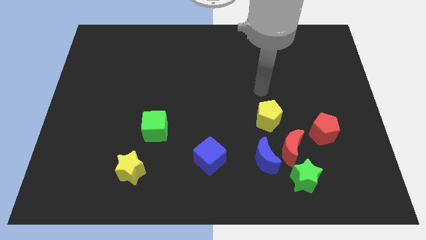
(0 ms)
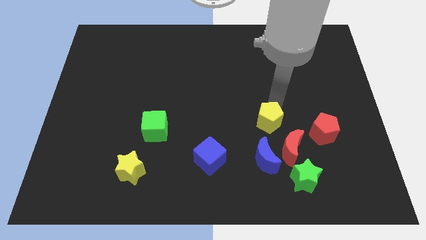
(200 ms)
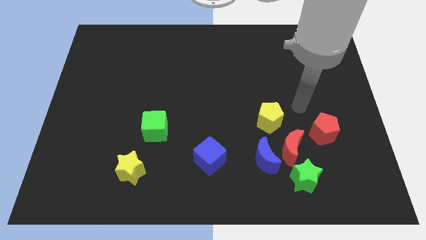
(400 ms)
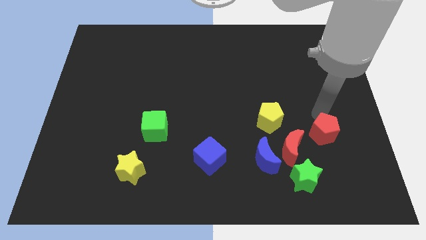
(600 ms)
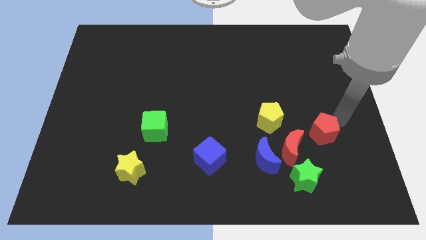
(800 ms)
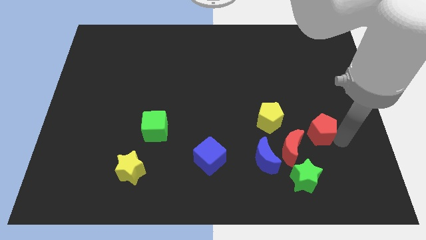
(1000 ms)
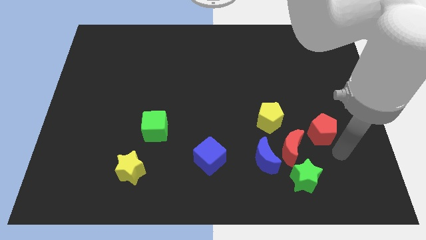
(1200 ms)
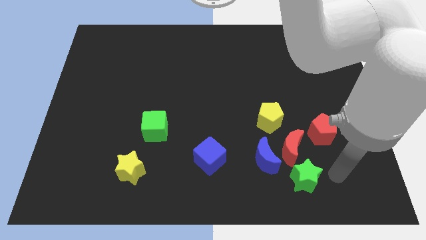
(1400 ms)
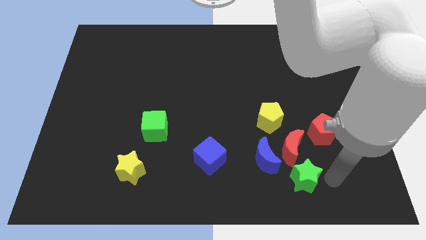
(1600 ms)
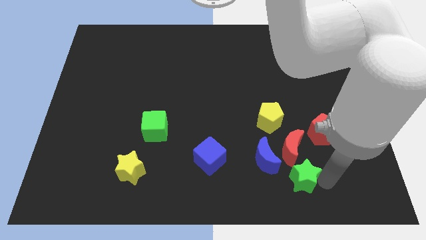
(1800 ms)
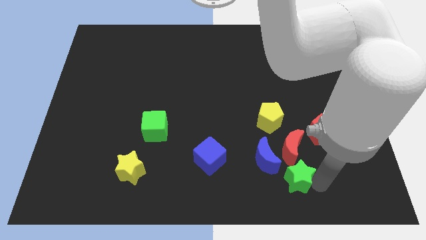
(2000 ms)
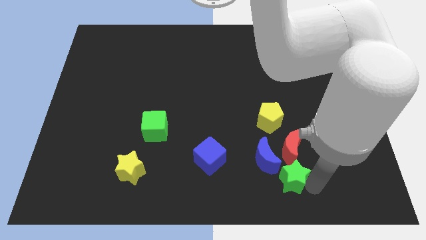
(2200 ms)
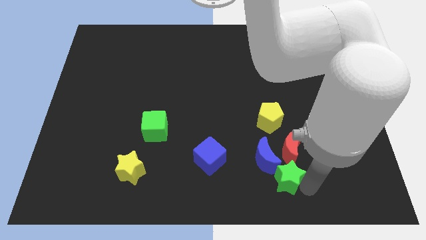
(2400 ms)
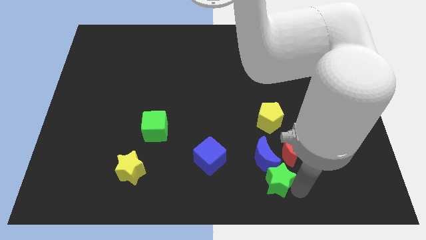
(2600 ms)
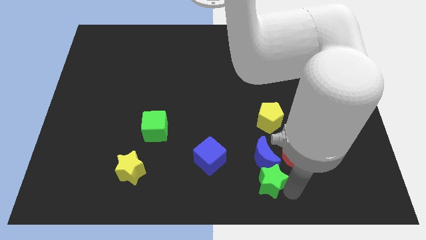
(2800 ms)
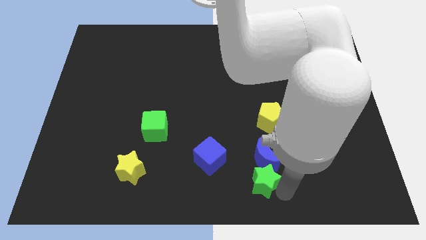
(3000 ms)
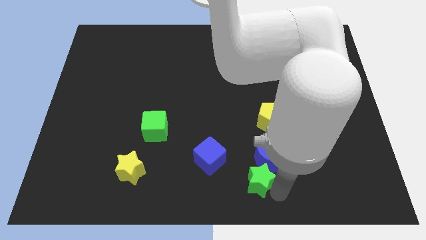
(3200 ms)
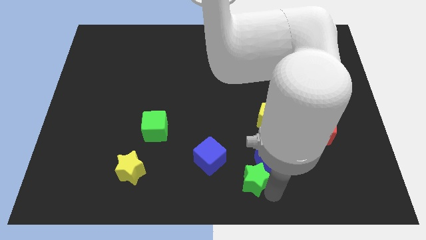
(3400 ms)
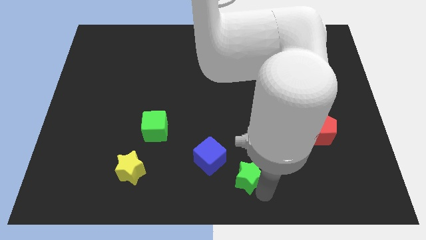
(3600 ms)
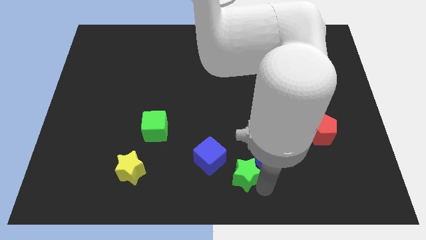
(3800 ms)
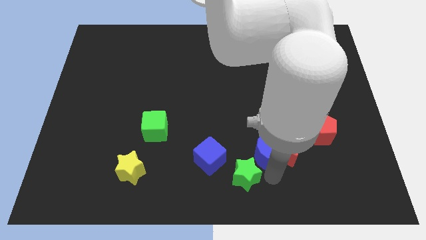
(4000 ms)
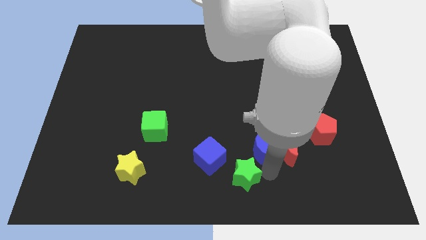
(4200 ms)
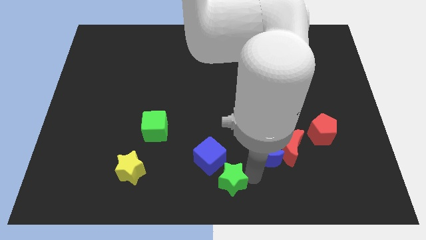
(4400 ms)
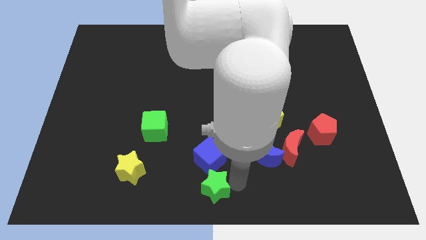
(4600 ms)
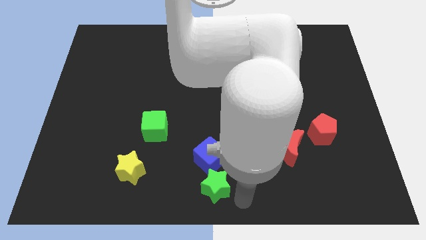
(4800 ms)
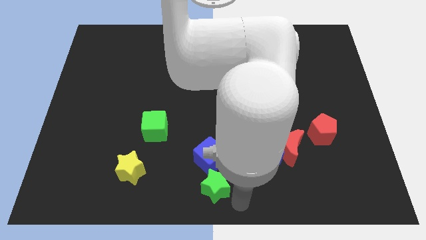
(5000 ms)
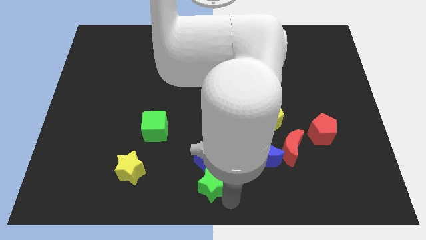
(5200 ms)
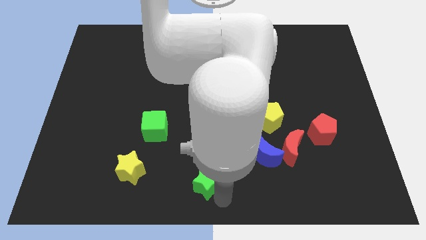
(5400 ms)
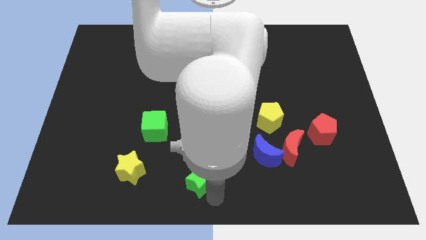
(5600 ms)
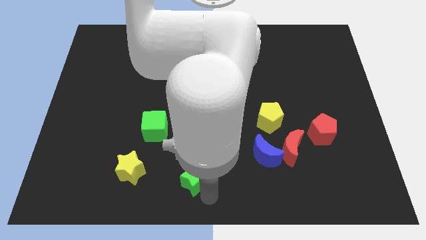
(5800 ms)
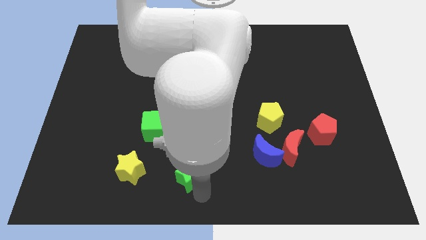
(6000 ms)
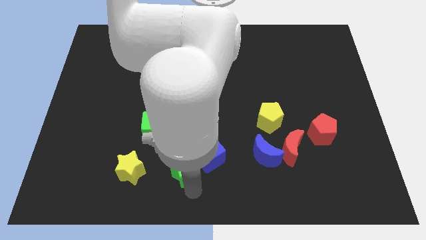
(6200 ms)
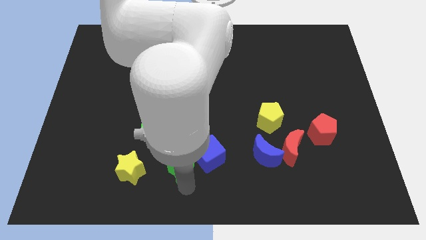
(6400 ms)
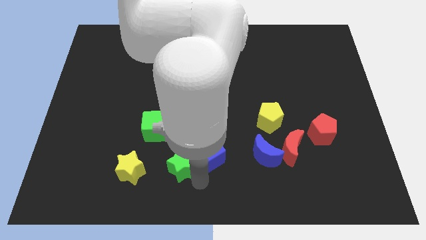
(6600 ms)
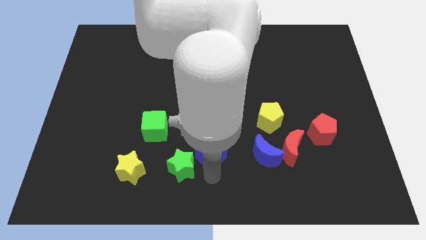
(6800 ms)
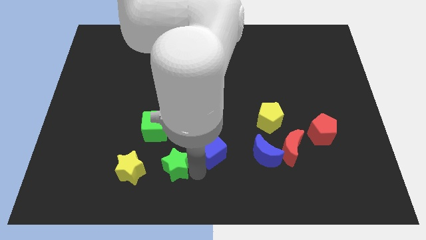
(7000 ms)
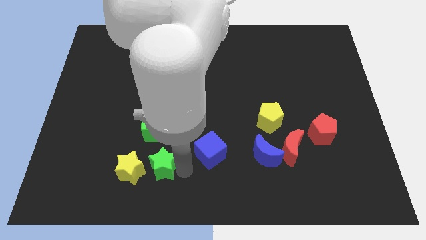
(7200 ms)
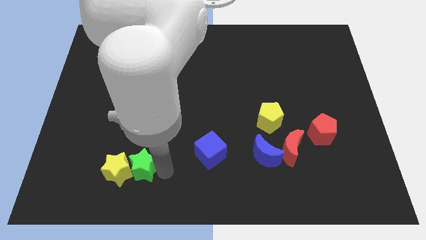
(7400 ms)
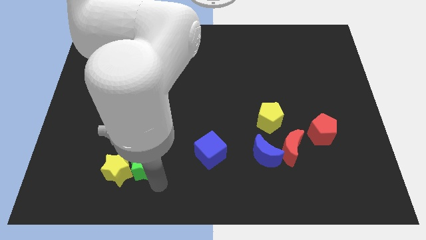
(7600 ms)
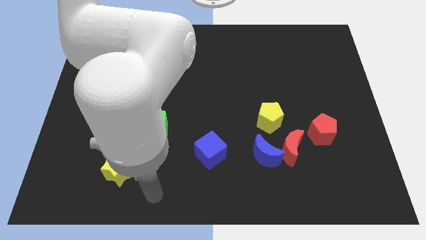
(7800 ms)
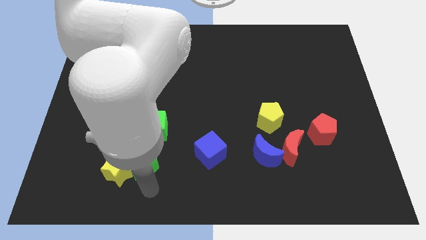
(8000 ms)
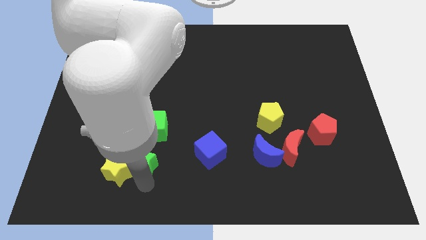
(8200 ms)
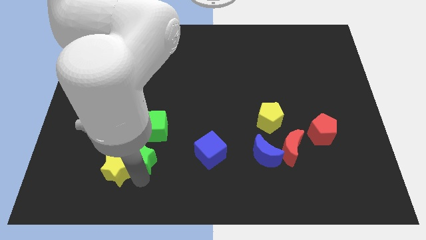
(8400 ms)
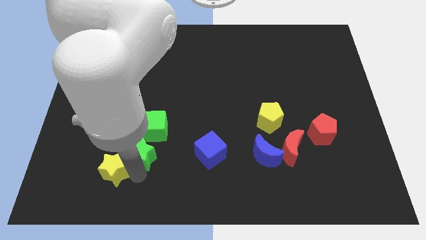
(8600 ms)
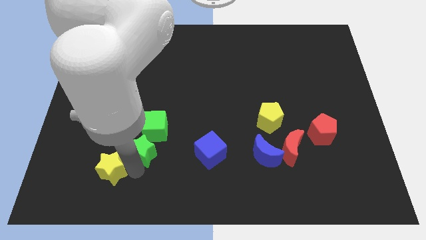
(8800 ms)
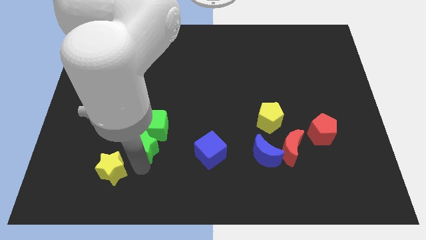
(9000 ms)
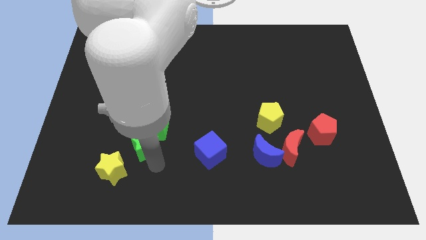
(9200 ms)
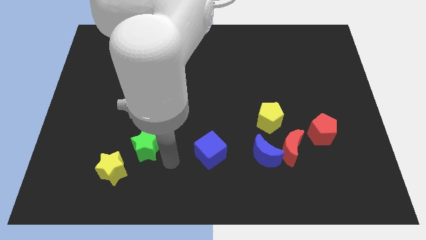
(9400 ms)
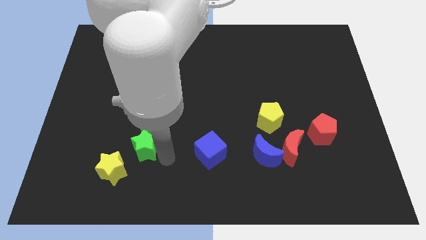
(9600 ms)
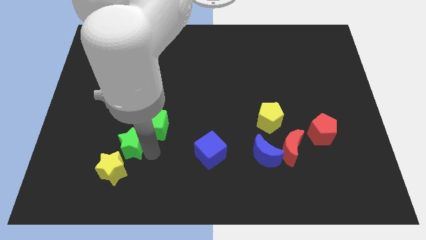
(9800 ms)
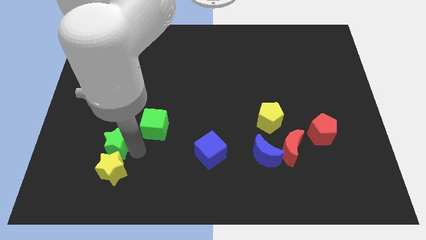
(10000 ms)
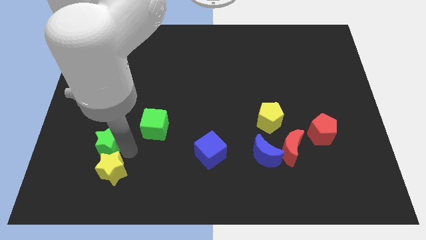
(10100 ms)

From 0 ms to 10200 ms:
push the green star to the left of the green cube

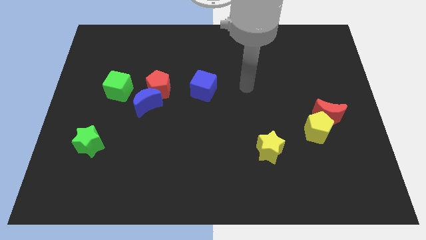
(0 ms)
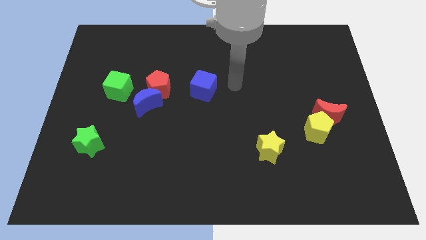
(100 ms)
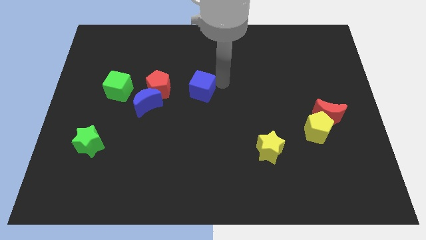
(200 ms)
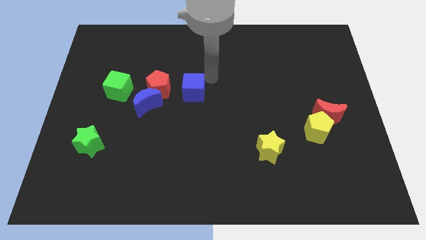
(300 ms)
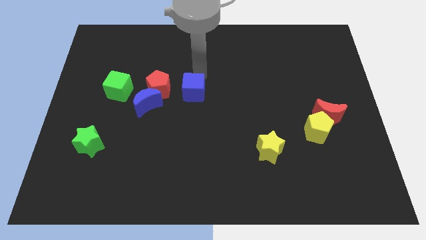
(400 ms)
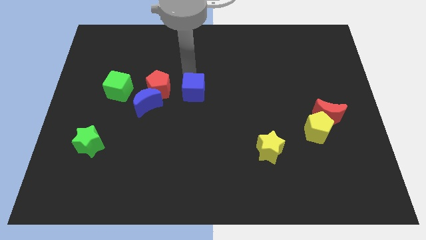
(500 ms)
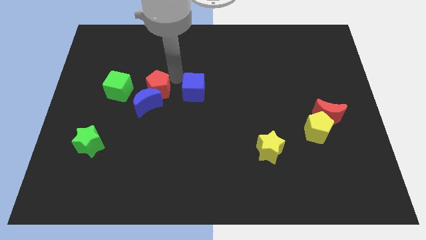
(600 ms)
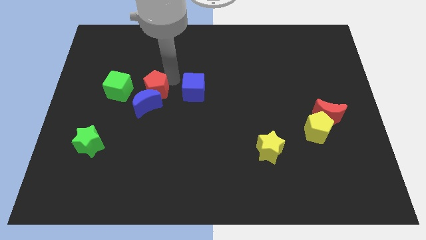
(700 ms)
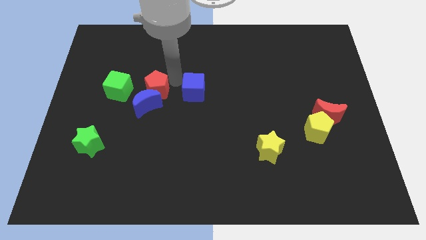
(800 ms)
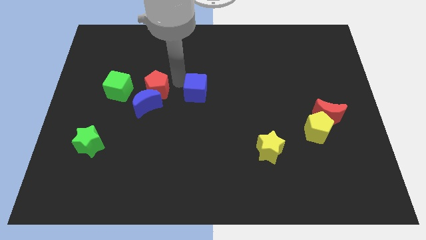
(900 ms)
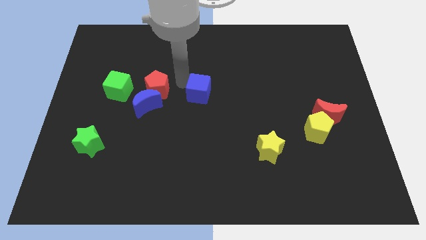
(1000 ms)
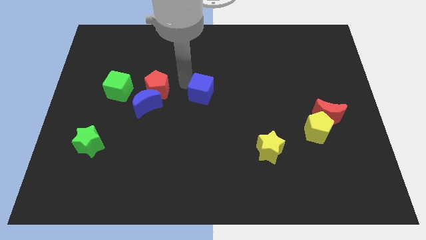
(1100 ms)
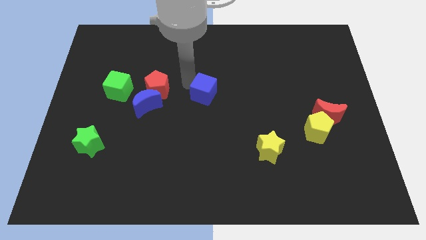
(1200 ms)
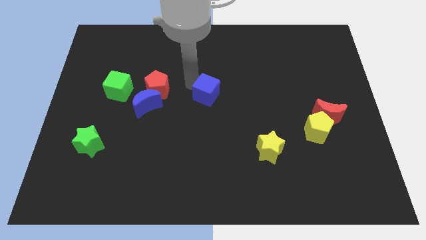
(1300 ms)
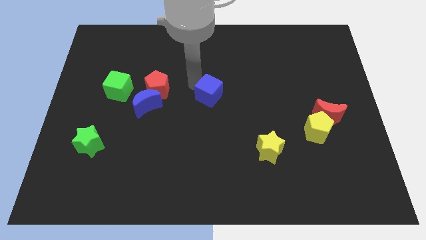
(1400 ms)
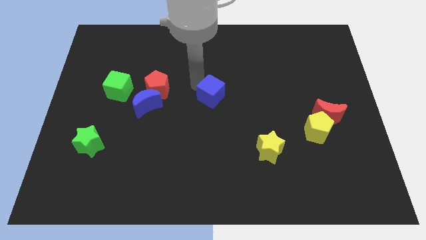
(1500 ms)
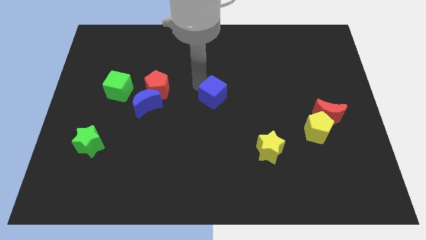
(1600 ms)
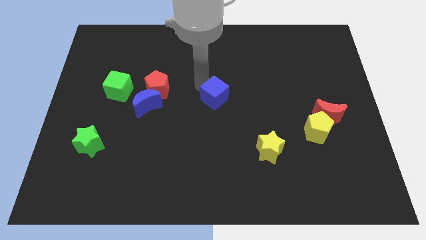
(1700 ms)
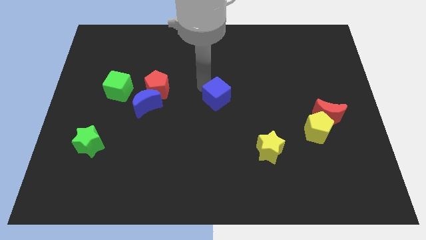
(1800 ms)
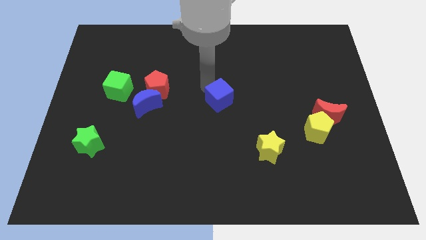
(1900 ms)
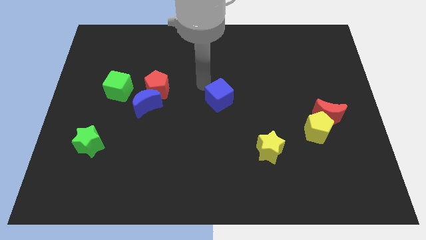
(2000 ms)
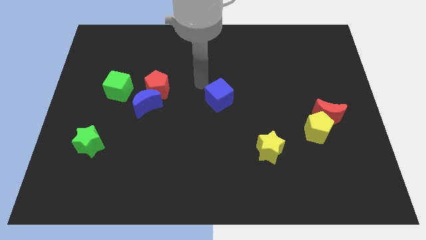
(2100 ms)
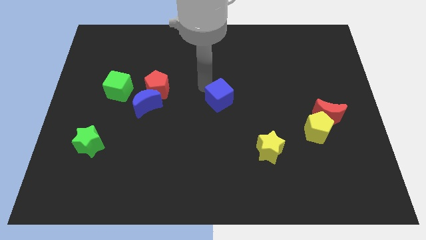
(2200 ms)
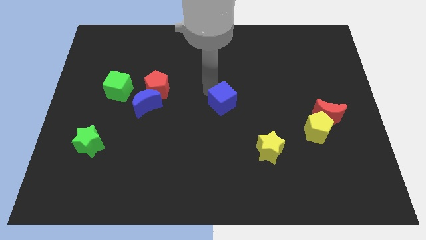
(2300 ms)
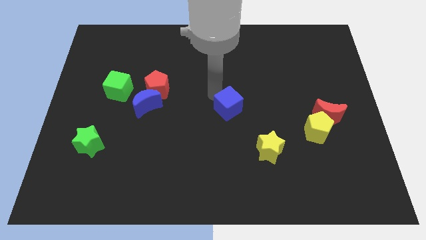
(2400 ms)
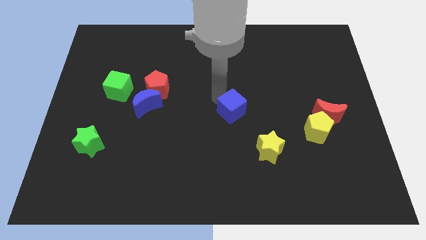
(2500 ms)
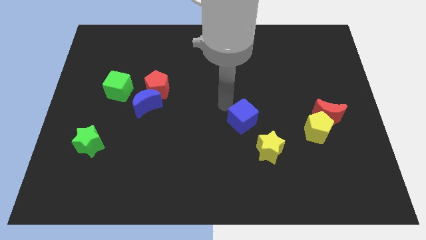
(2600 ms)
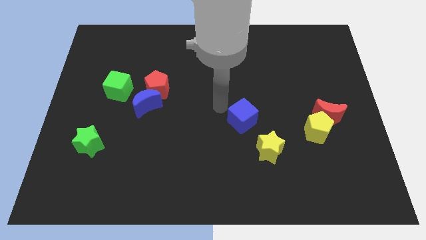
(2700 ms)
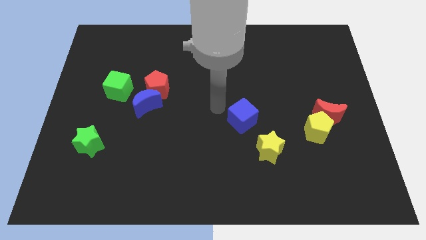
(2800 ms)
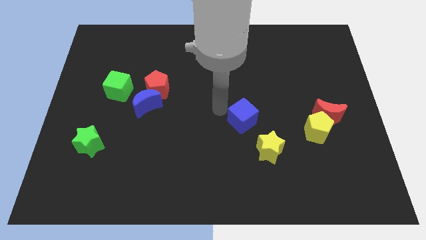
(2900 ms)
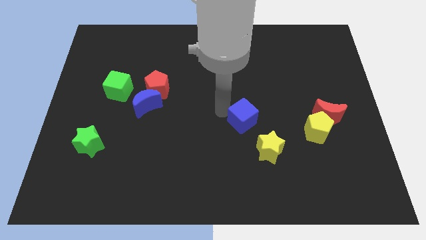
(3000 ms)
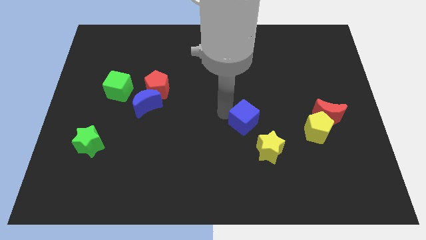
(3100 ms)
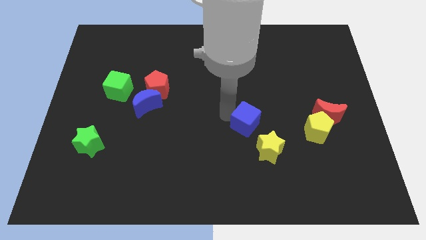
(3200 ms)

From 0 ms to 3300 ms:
move the blue cube to the left side of the yellow pentagon
